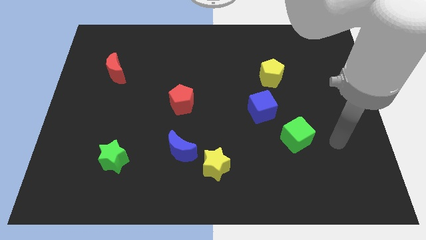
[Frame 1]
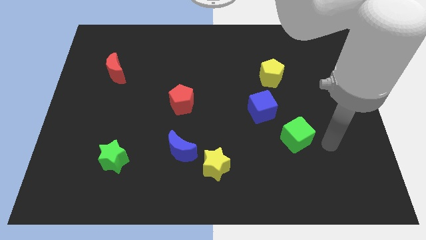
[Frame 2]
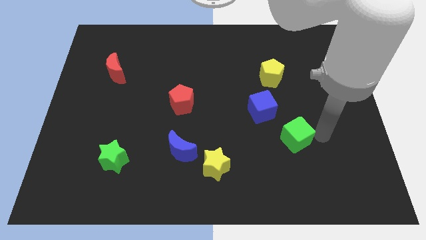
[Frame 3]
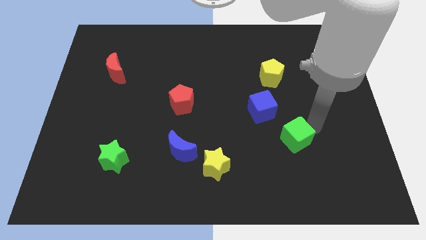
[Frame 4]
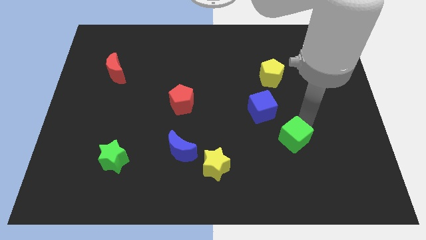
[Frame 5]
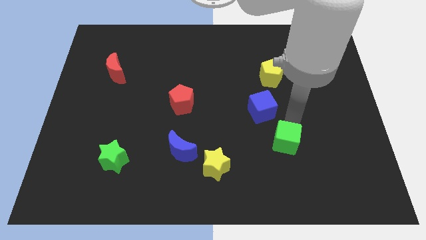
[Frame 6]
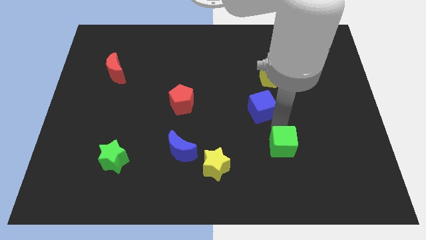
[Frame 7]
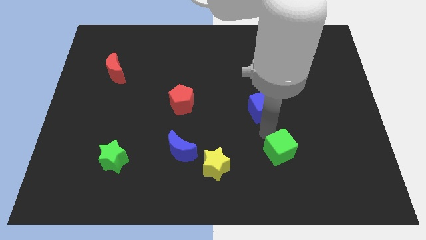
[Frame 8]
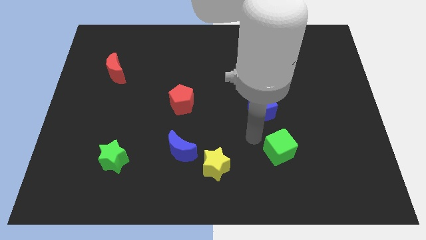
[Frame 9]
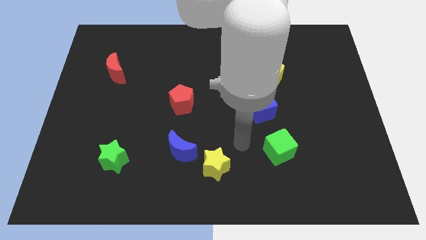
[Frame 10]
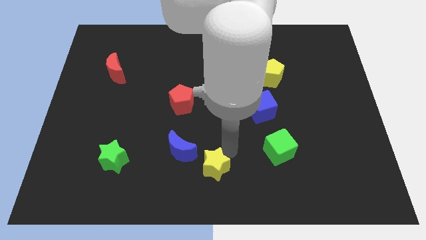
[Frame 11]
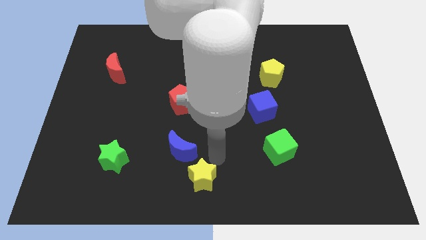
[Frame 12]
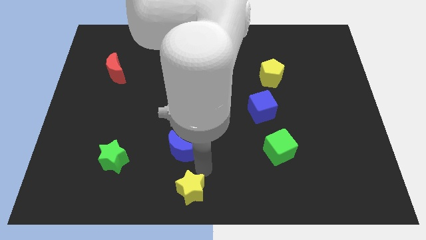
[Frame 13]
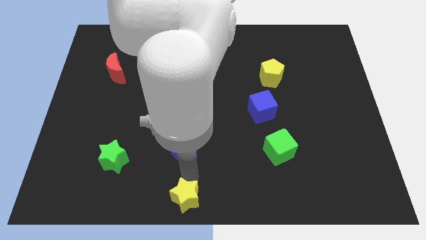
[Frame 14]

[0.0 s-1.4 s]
separate the blue moon from the yellow star

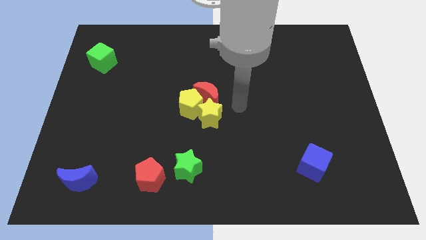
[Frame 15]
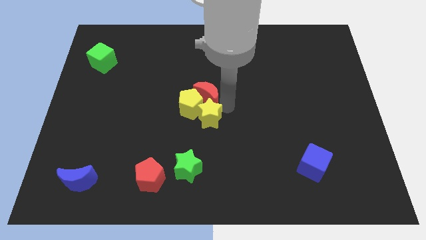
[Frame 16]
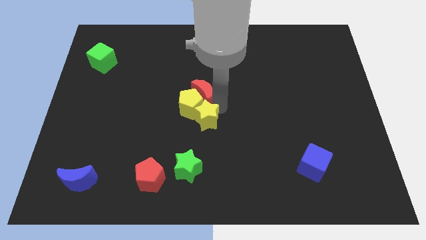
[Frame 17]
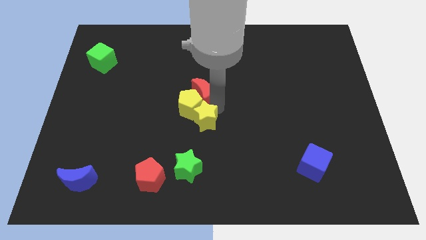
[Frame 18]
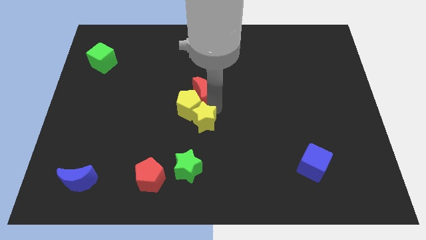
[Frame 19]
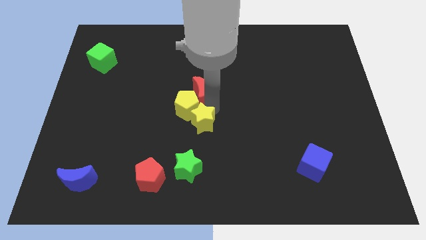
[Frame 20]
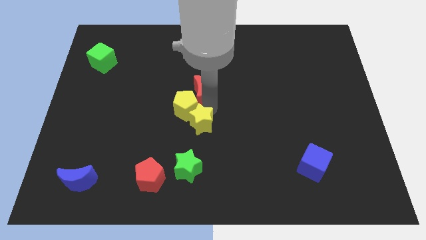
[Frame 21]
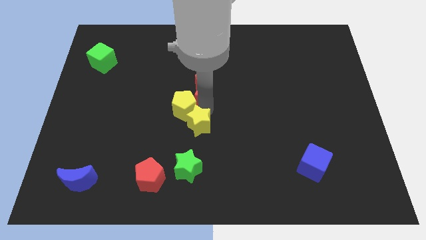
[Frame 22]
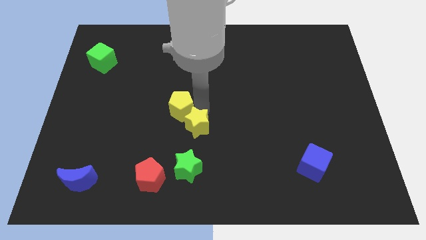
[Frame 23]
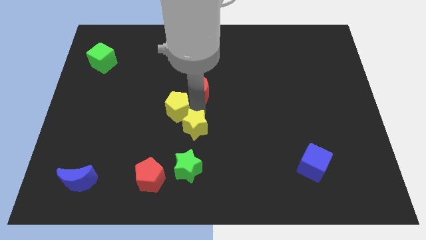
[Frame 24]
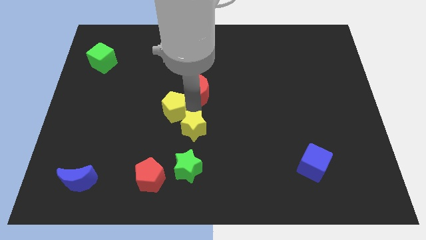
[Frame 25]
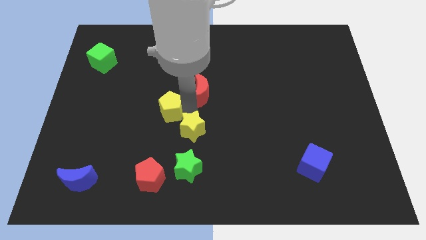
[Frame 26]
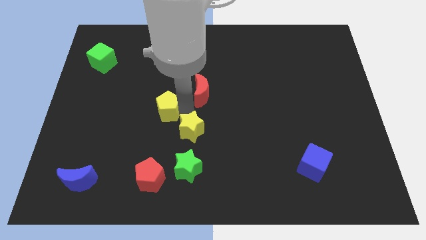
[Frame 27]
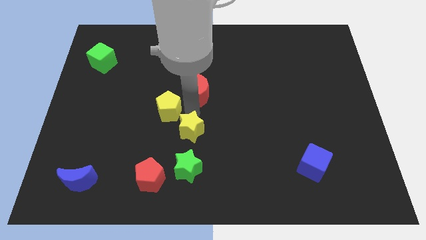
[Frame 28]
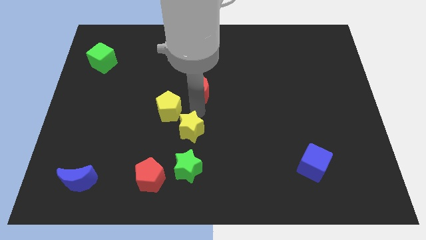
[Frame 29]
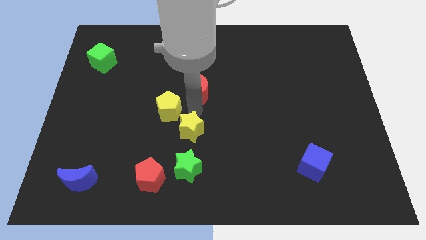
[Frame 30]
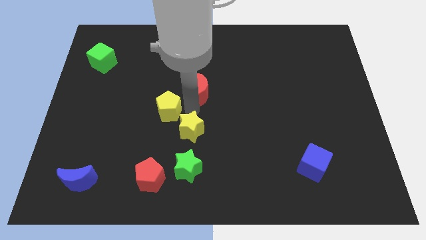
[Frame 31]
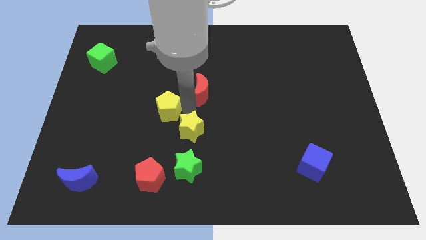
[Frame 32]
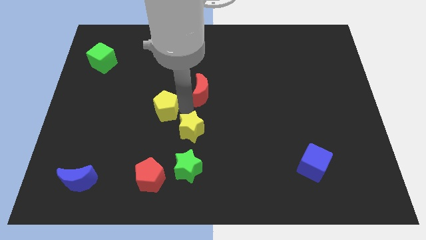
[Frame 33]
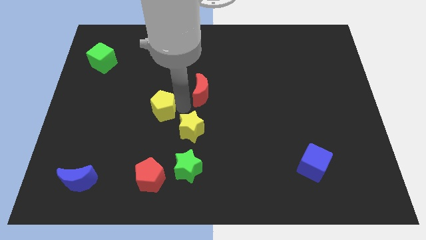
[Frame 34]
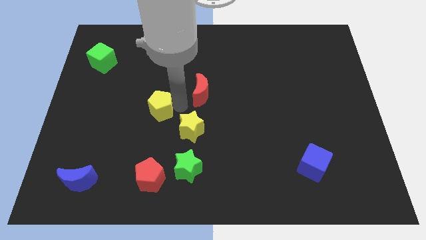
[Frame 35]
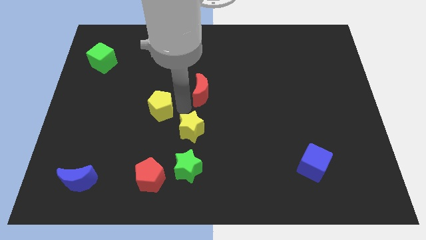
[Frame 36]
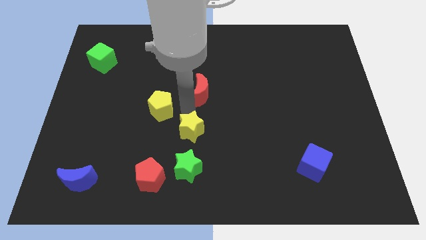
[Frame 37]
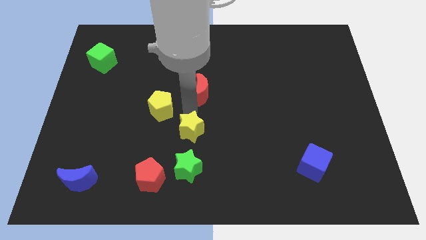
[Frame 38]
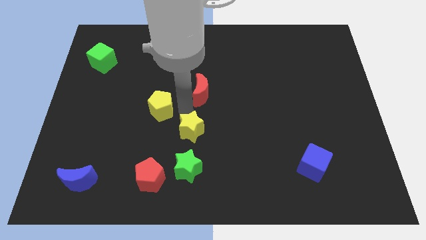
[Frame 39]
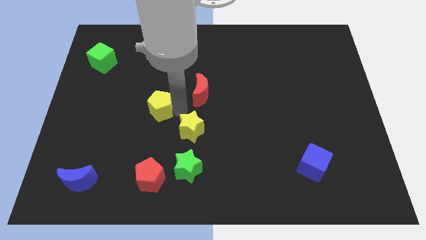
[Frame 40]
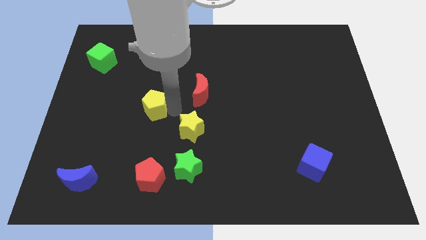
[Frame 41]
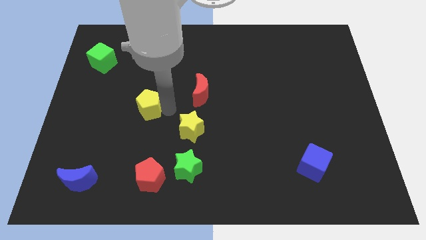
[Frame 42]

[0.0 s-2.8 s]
separate the yellow pentagon from the red moon and yellow star

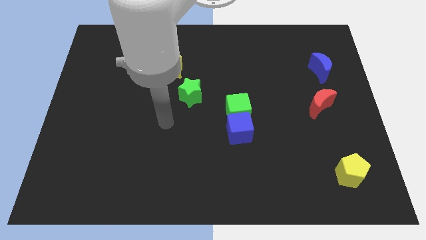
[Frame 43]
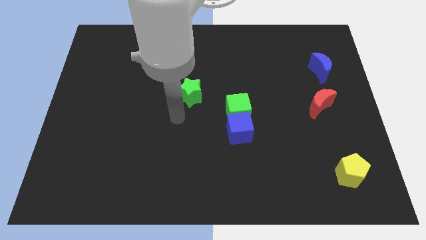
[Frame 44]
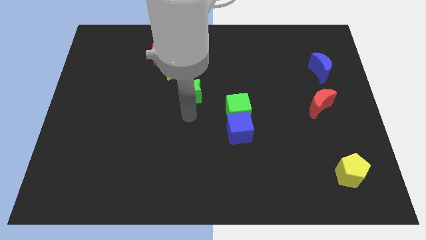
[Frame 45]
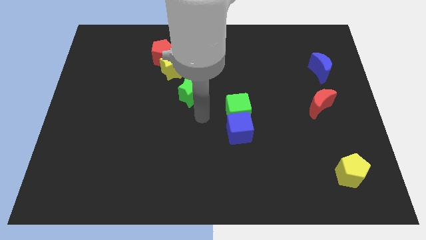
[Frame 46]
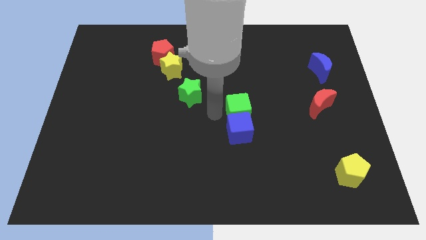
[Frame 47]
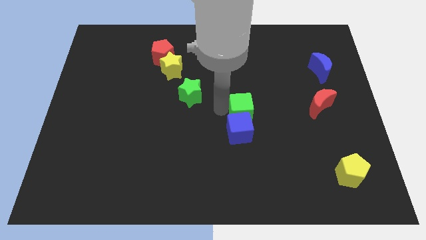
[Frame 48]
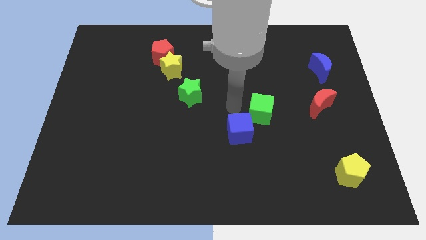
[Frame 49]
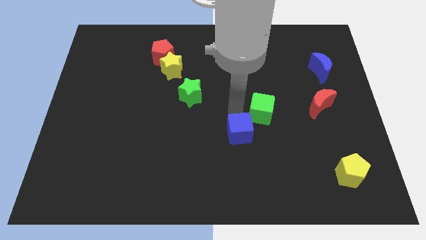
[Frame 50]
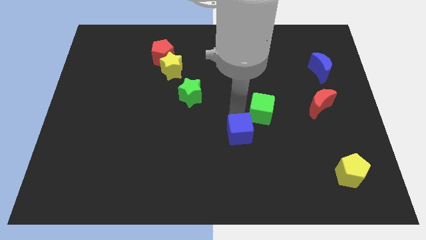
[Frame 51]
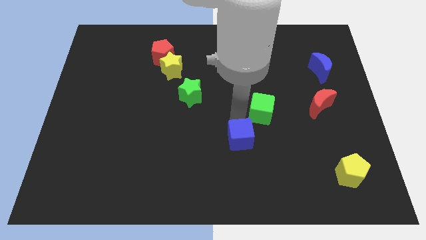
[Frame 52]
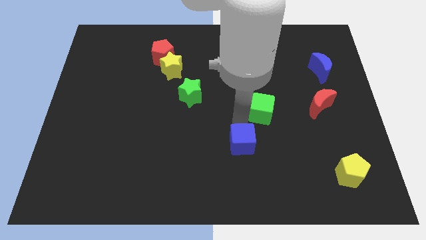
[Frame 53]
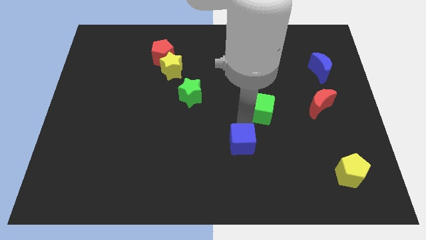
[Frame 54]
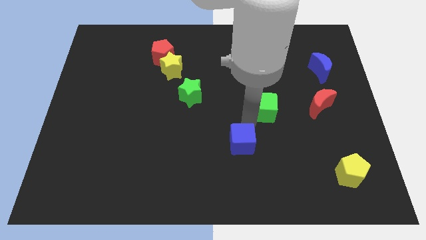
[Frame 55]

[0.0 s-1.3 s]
separate the blue cube from the green cube

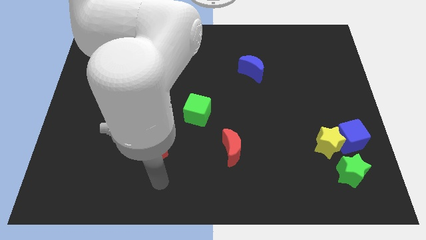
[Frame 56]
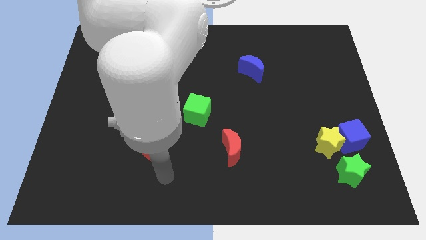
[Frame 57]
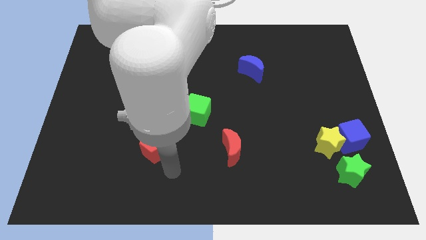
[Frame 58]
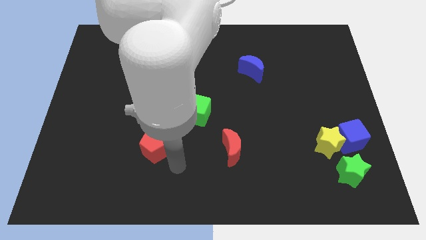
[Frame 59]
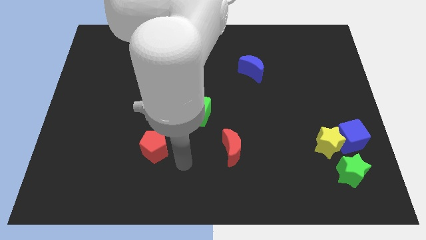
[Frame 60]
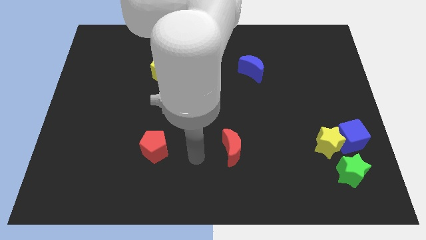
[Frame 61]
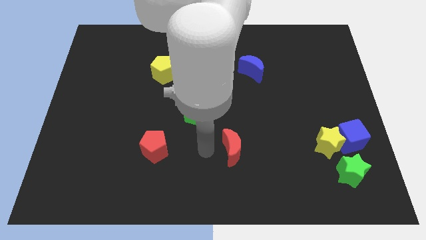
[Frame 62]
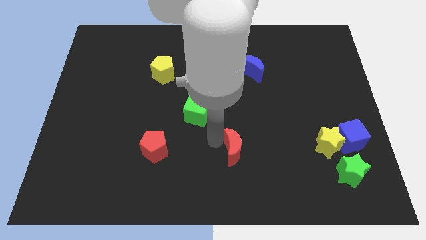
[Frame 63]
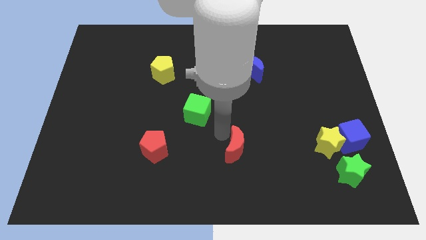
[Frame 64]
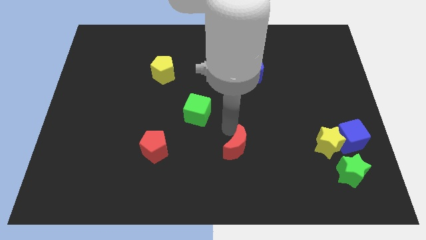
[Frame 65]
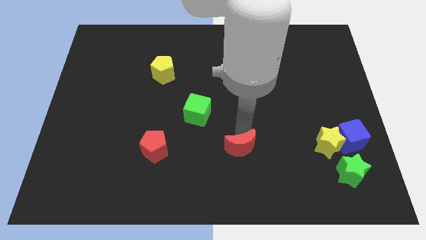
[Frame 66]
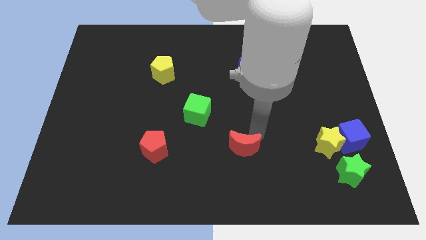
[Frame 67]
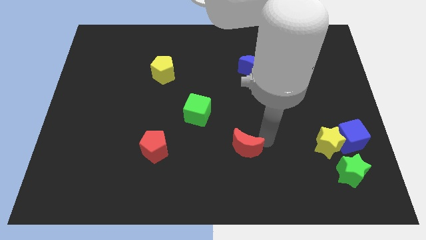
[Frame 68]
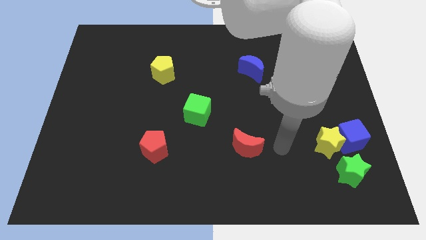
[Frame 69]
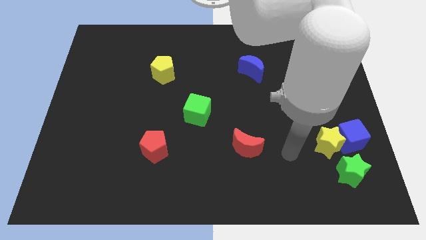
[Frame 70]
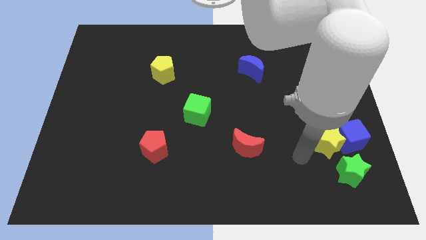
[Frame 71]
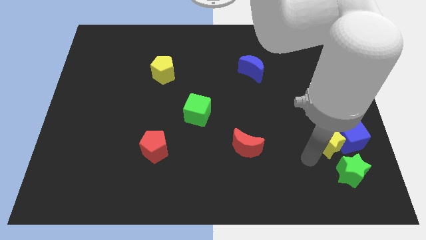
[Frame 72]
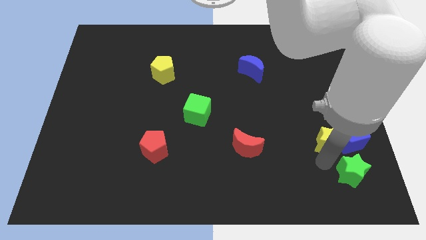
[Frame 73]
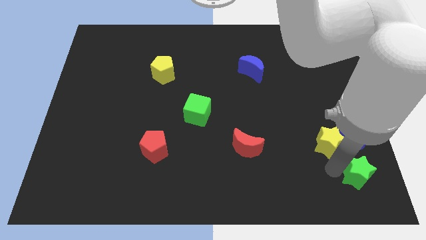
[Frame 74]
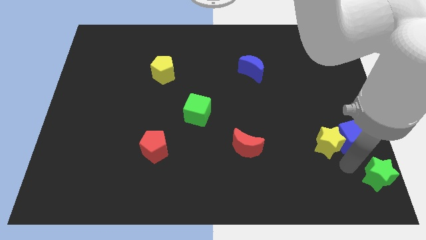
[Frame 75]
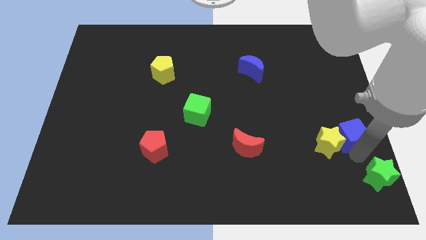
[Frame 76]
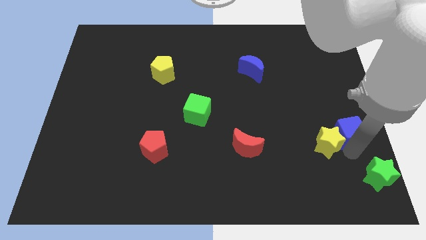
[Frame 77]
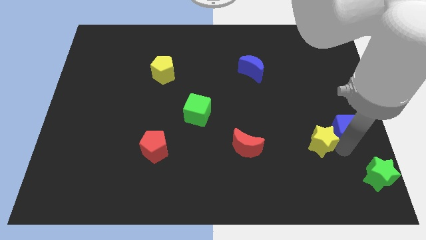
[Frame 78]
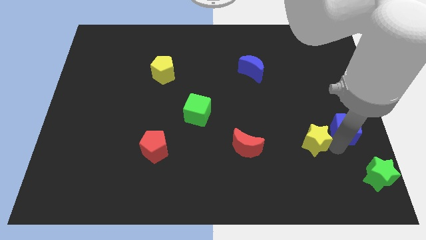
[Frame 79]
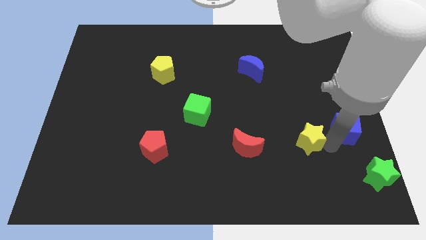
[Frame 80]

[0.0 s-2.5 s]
separate the yellow star from the blue cube and green star

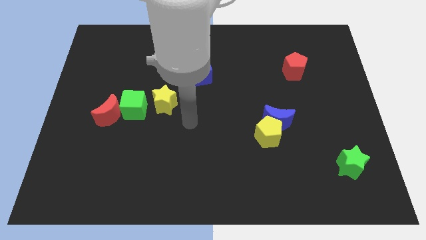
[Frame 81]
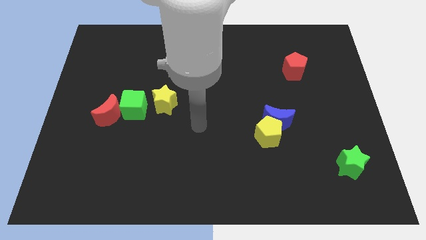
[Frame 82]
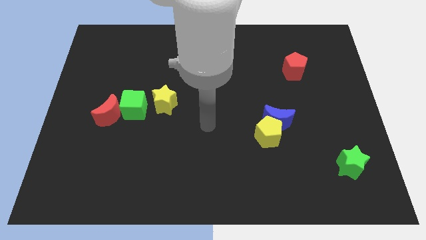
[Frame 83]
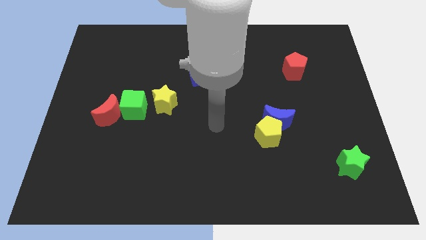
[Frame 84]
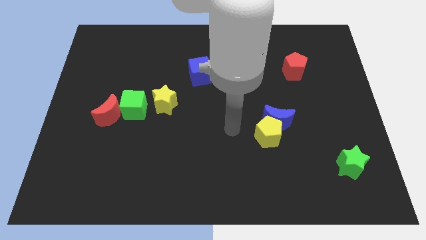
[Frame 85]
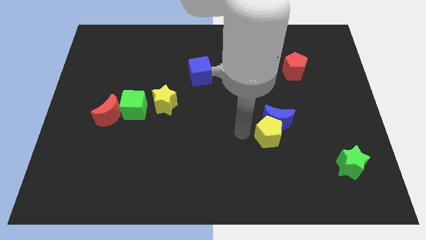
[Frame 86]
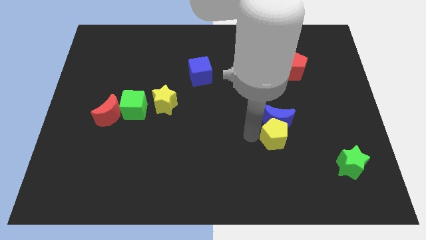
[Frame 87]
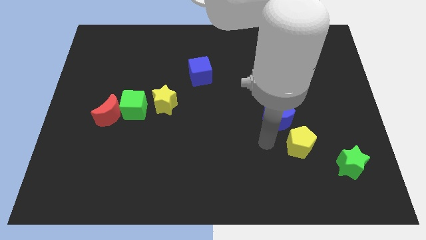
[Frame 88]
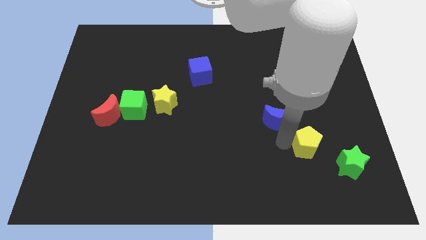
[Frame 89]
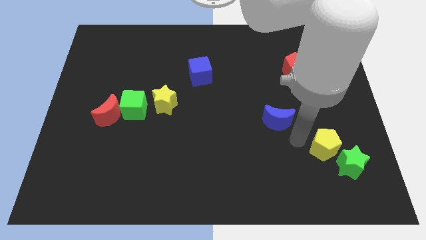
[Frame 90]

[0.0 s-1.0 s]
move the blue moon away from the yellow pentagon
